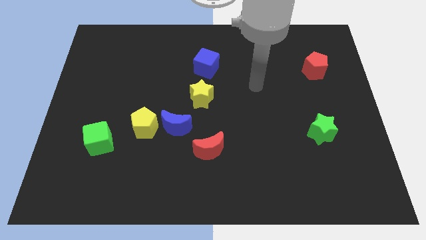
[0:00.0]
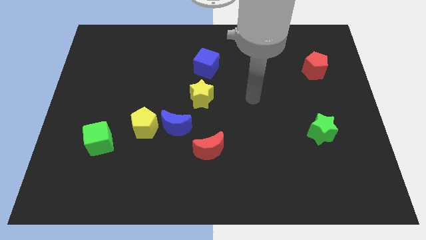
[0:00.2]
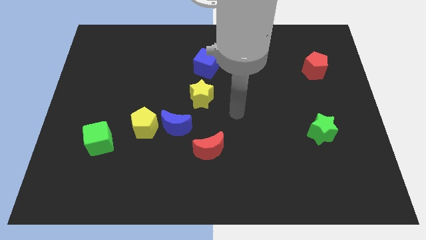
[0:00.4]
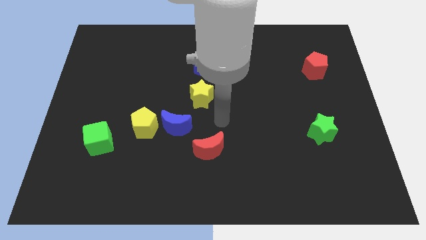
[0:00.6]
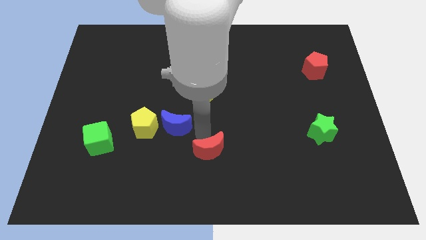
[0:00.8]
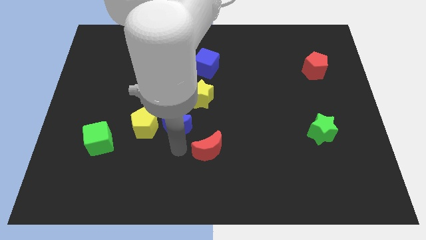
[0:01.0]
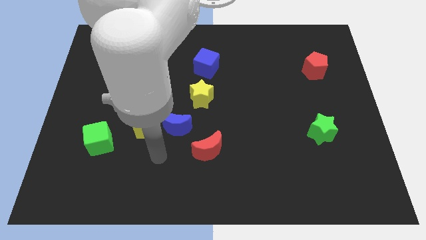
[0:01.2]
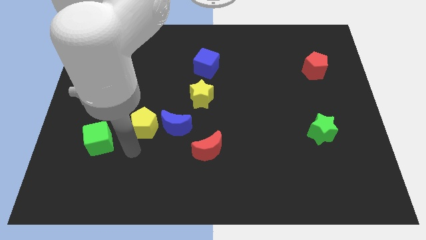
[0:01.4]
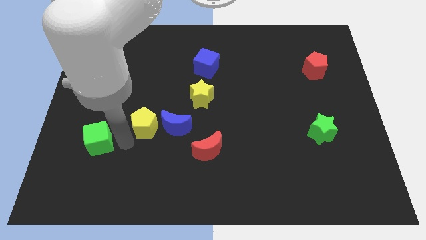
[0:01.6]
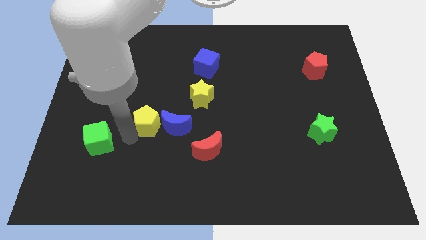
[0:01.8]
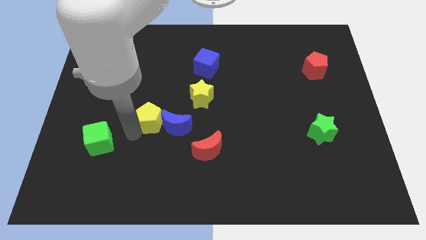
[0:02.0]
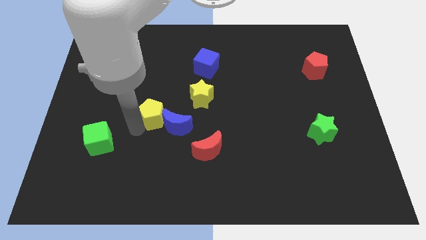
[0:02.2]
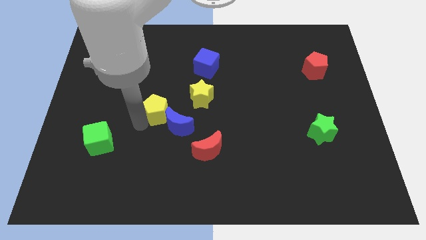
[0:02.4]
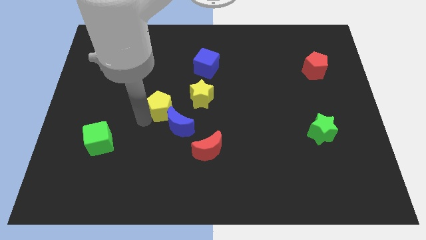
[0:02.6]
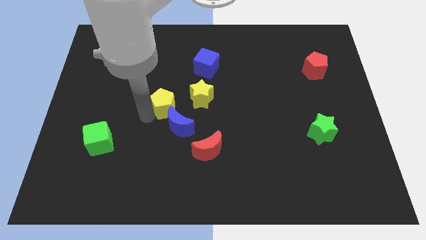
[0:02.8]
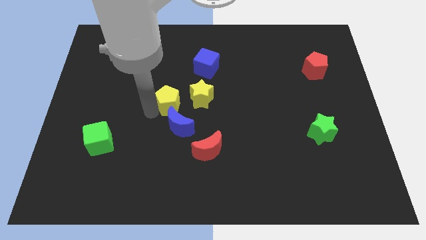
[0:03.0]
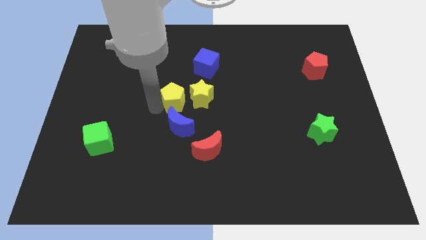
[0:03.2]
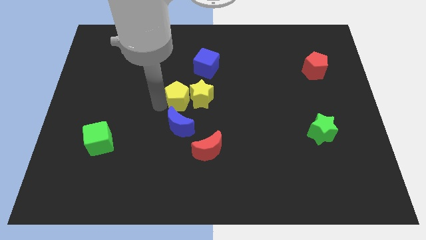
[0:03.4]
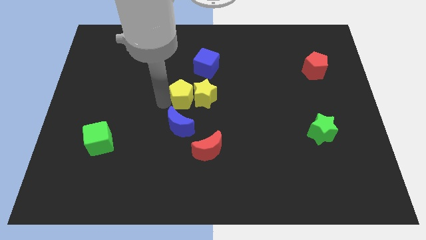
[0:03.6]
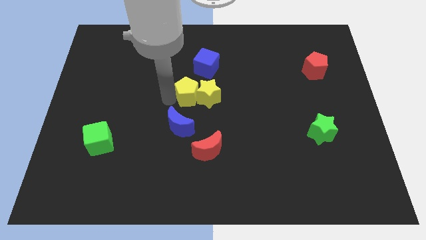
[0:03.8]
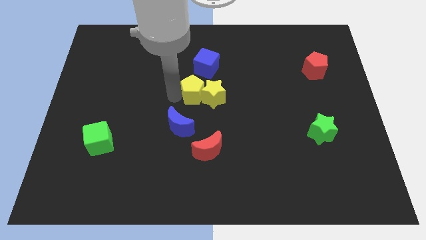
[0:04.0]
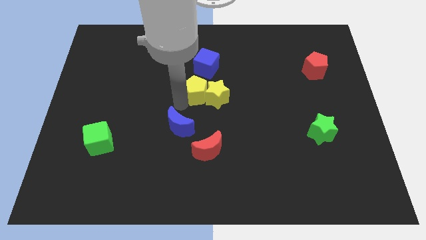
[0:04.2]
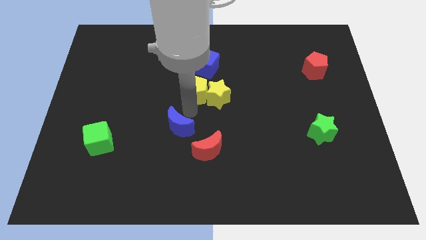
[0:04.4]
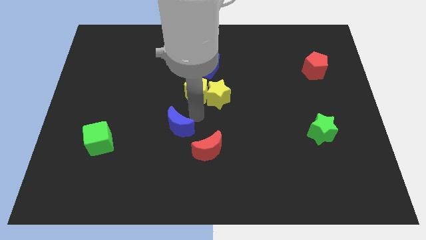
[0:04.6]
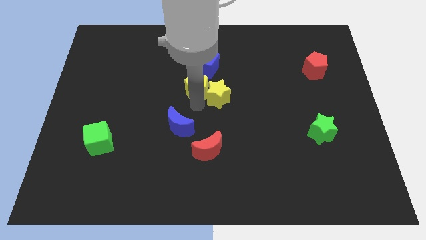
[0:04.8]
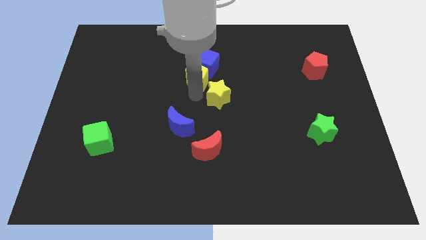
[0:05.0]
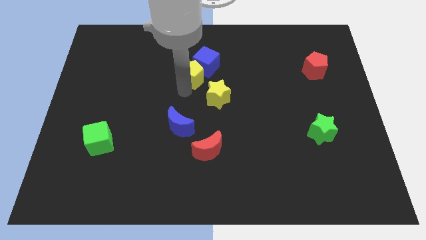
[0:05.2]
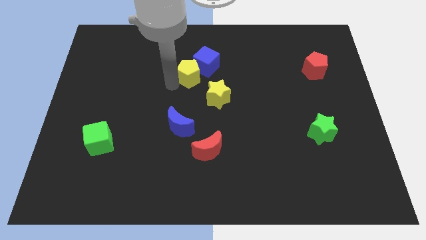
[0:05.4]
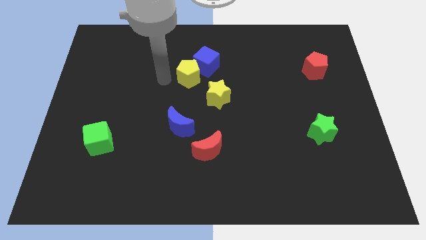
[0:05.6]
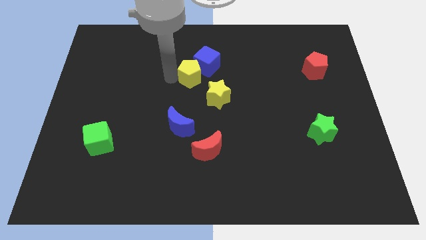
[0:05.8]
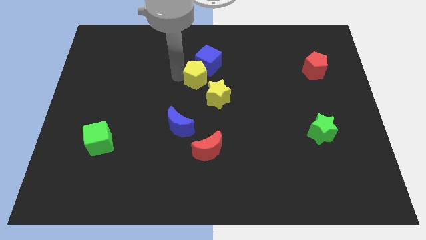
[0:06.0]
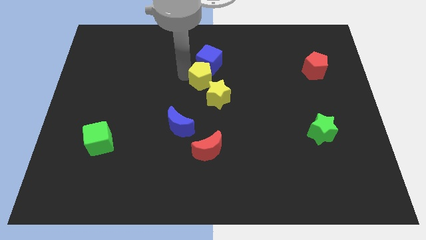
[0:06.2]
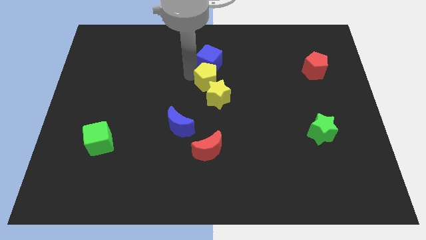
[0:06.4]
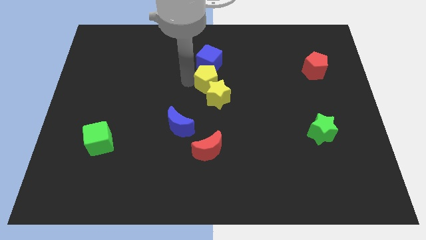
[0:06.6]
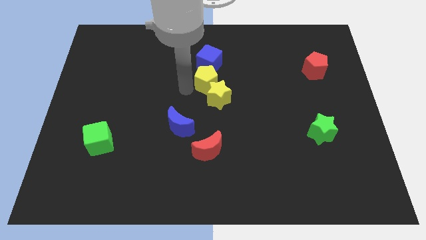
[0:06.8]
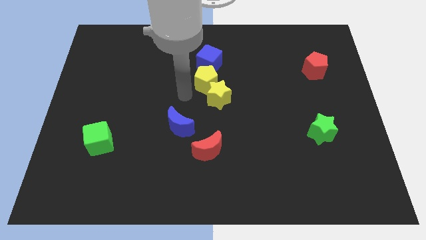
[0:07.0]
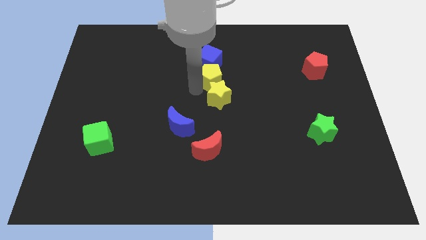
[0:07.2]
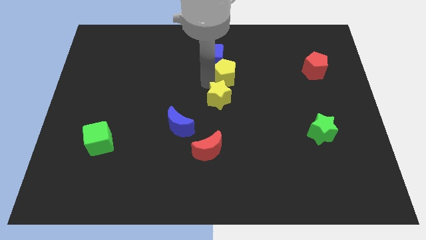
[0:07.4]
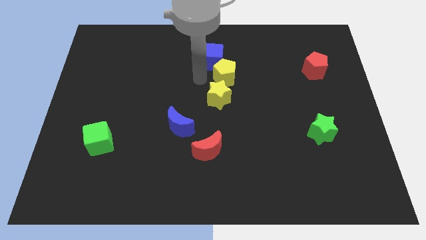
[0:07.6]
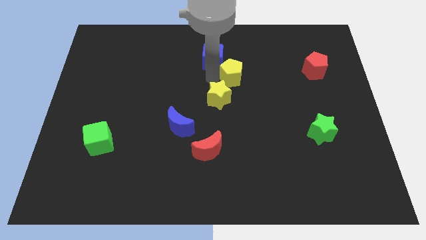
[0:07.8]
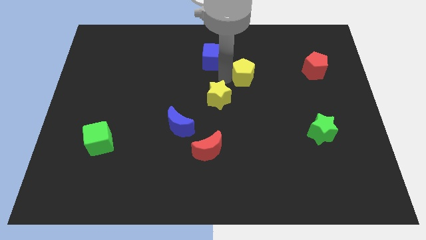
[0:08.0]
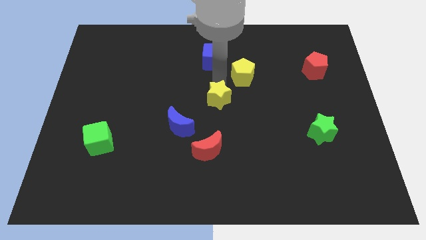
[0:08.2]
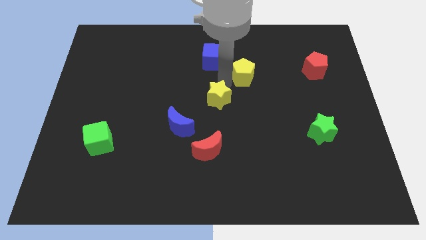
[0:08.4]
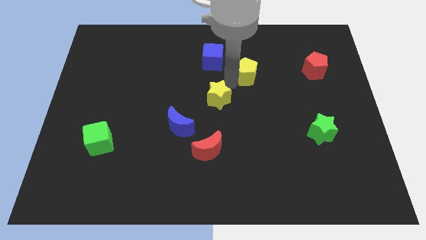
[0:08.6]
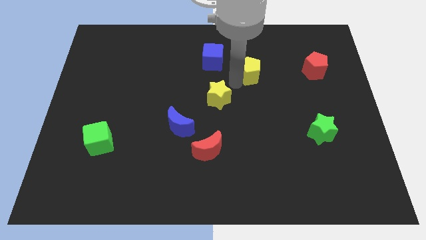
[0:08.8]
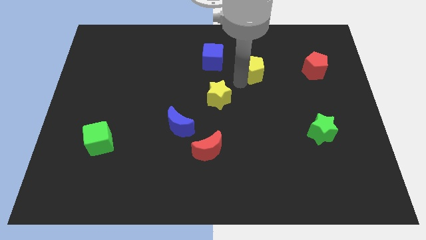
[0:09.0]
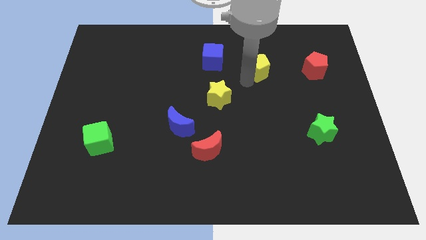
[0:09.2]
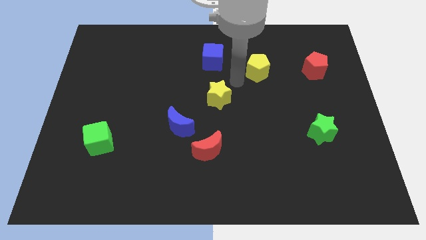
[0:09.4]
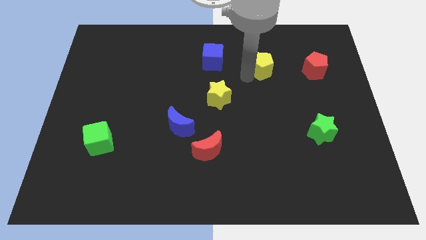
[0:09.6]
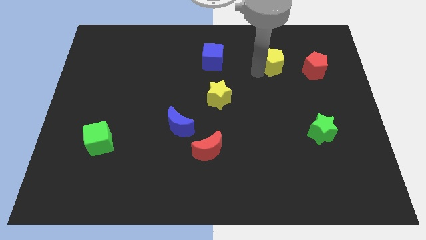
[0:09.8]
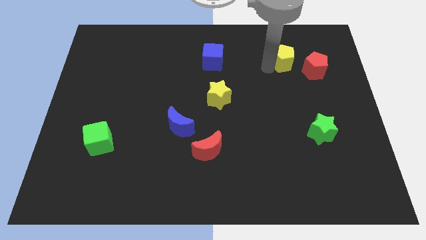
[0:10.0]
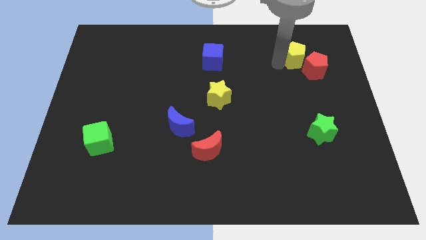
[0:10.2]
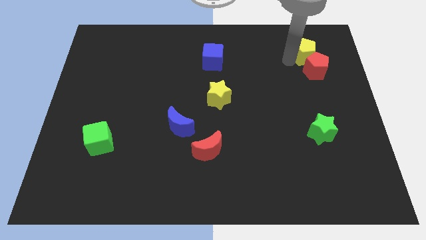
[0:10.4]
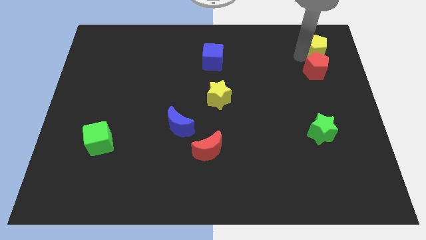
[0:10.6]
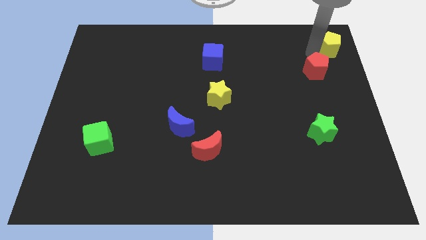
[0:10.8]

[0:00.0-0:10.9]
move the yellow pentagon to the top right of the board

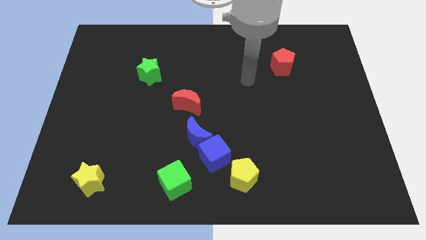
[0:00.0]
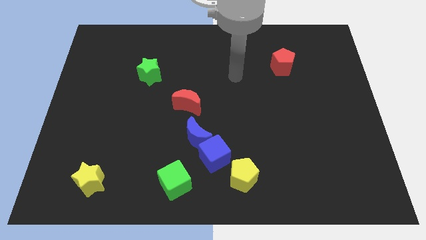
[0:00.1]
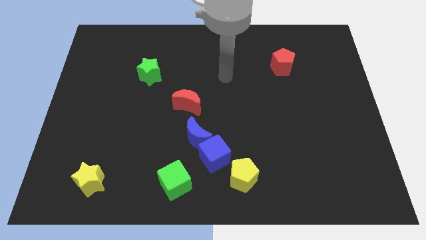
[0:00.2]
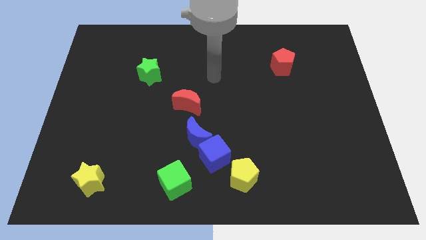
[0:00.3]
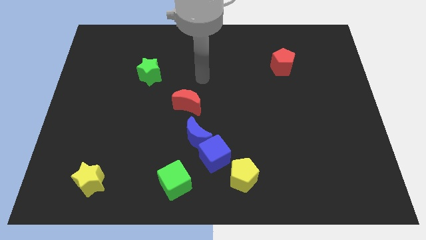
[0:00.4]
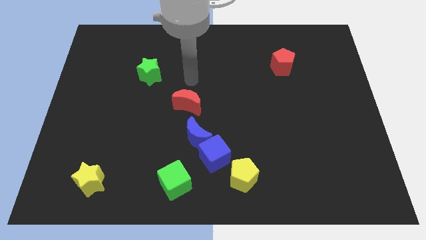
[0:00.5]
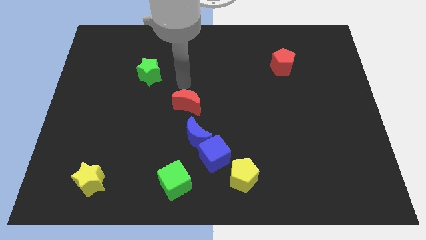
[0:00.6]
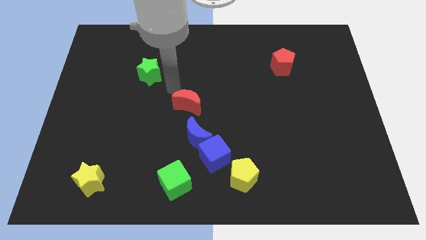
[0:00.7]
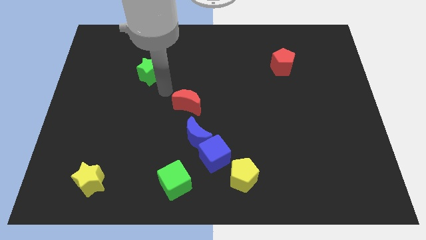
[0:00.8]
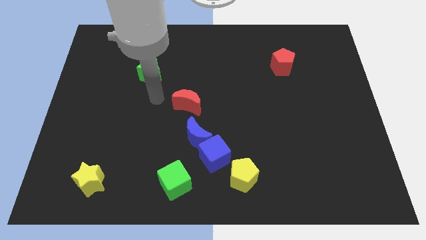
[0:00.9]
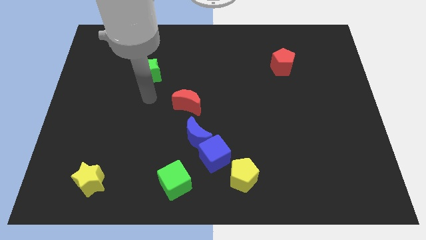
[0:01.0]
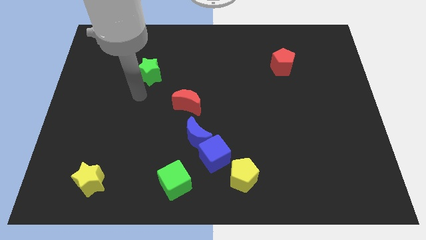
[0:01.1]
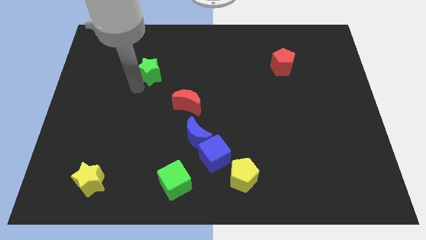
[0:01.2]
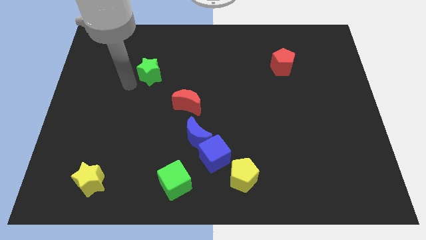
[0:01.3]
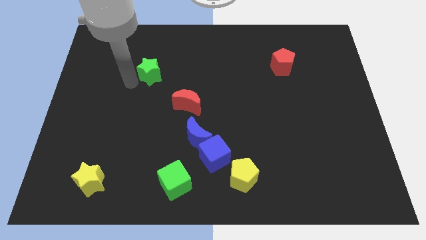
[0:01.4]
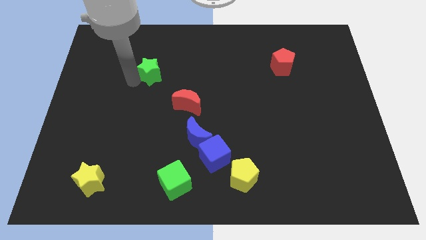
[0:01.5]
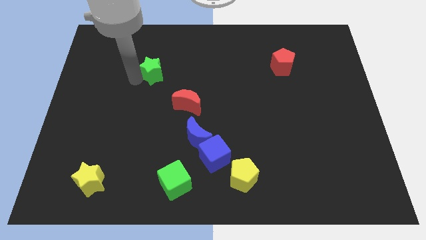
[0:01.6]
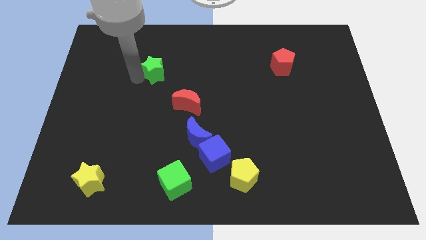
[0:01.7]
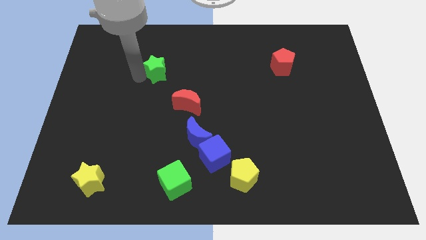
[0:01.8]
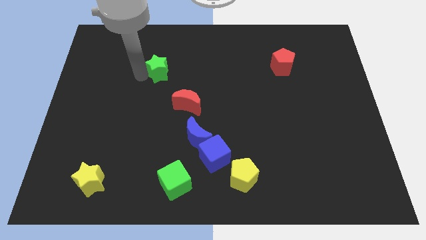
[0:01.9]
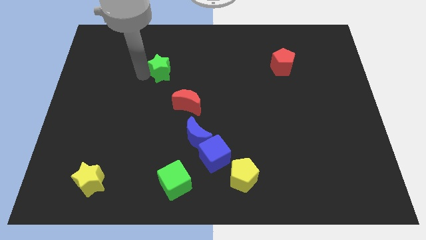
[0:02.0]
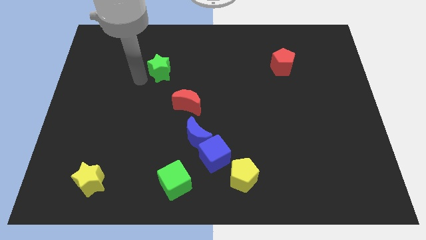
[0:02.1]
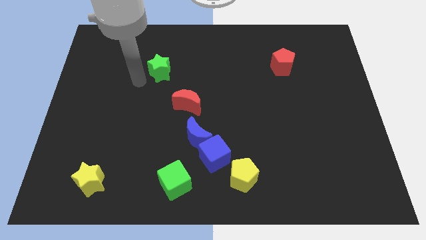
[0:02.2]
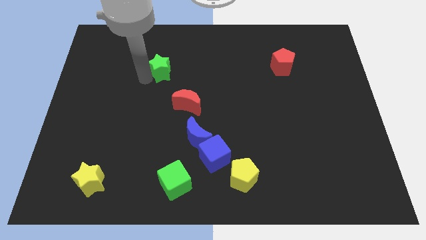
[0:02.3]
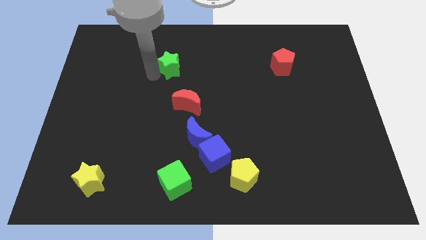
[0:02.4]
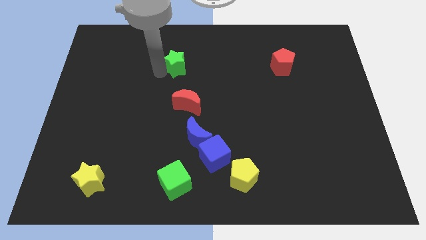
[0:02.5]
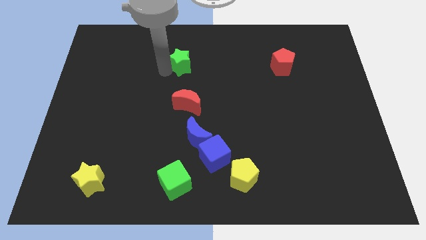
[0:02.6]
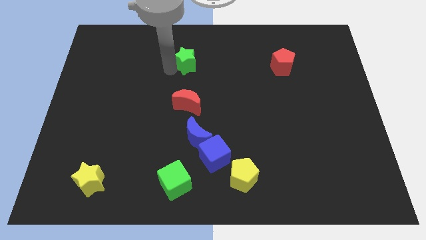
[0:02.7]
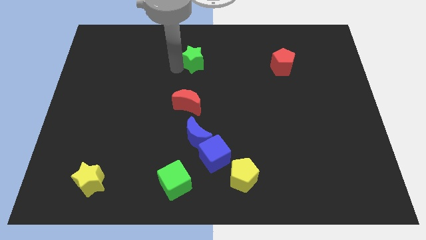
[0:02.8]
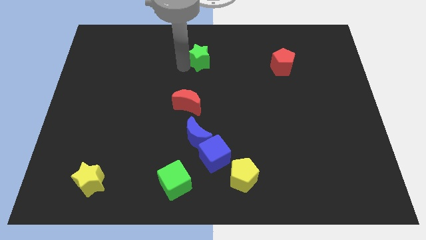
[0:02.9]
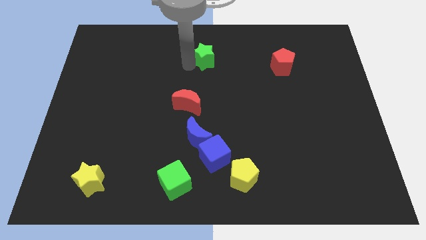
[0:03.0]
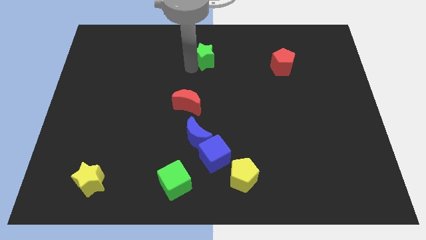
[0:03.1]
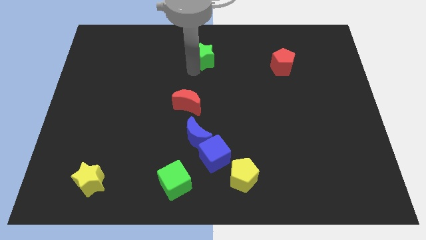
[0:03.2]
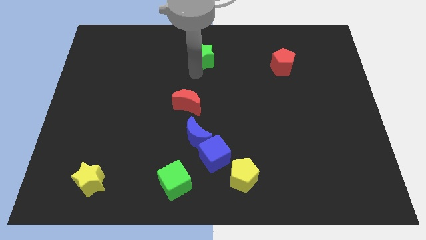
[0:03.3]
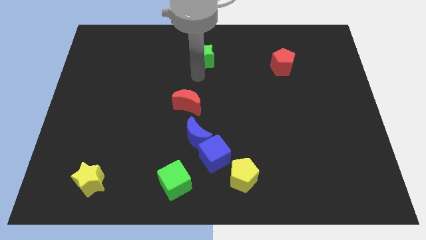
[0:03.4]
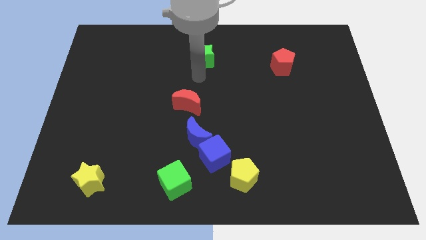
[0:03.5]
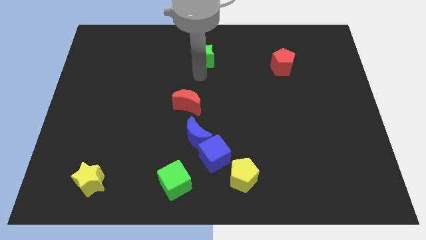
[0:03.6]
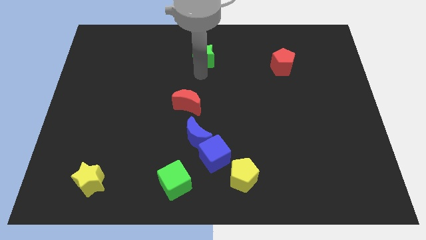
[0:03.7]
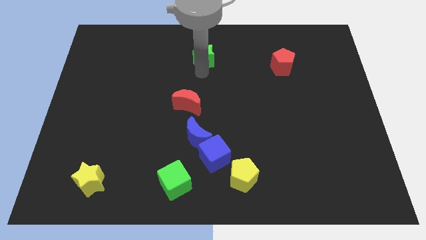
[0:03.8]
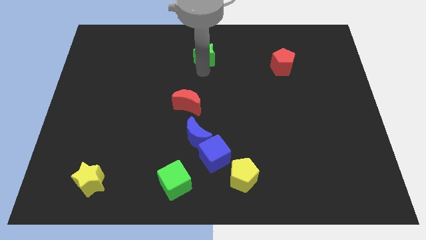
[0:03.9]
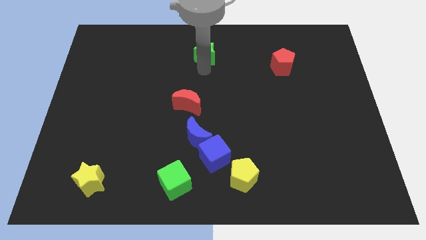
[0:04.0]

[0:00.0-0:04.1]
put the green star to the top side
